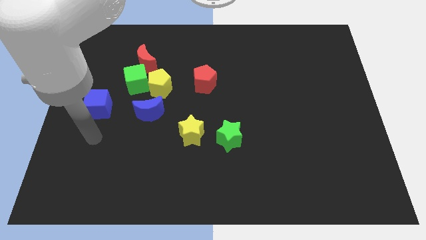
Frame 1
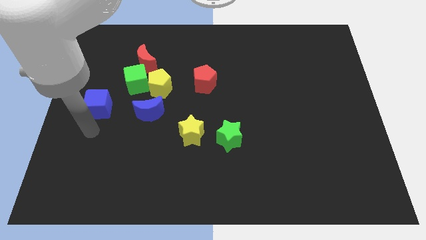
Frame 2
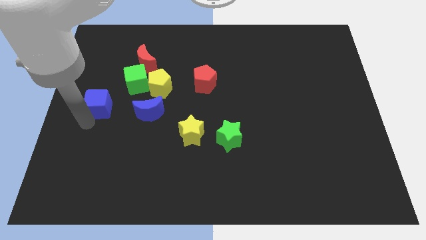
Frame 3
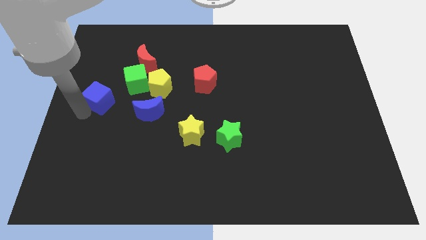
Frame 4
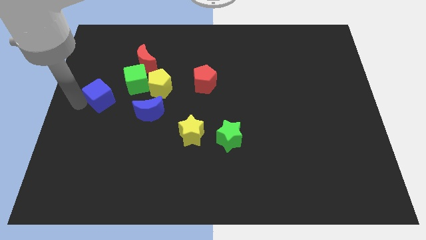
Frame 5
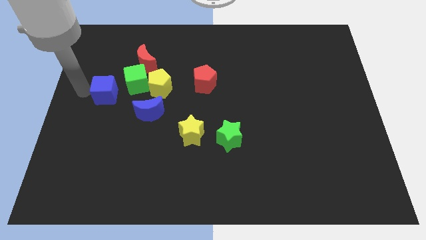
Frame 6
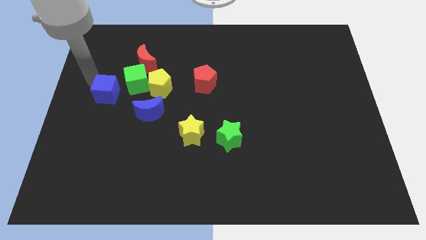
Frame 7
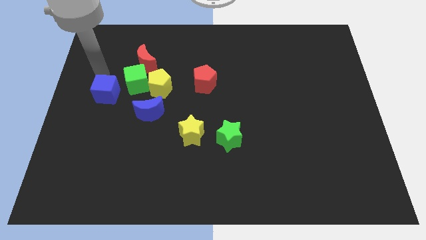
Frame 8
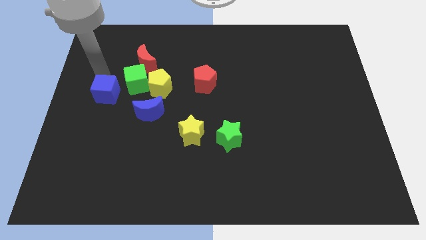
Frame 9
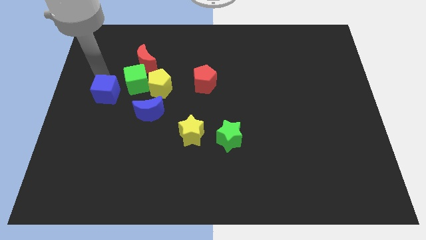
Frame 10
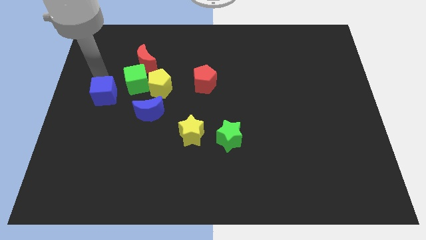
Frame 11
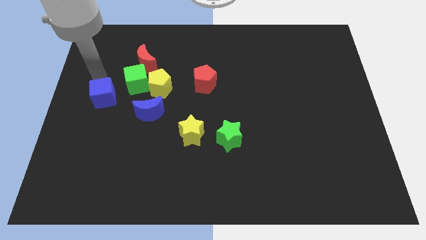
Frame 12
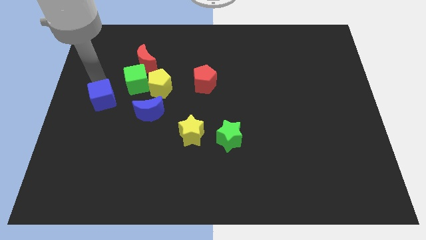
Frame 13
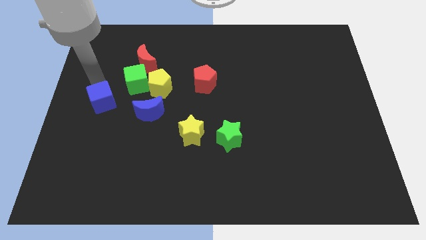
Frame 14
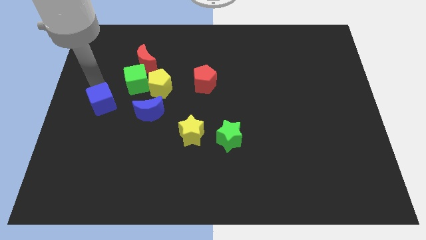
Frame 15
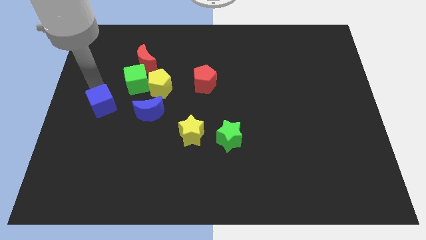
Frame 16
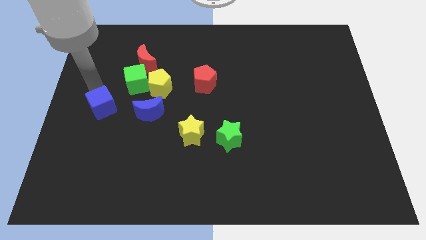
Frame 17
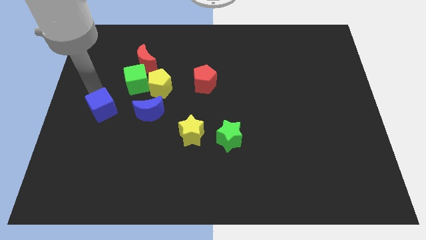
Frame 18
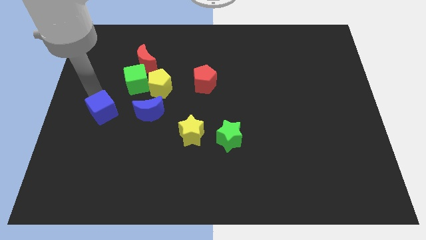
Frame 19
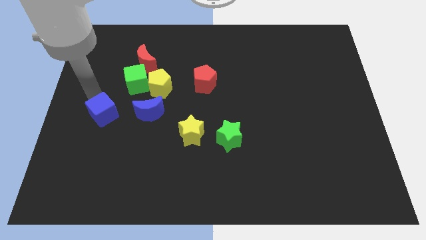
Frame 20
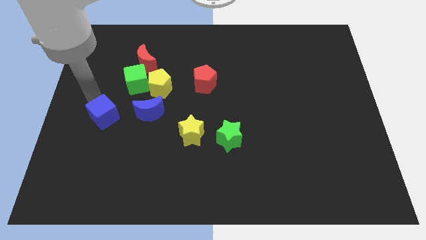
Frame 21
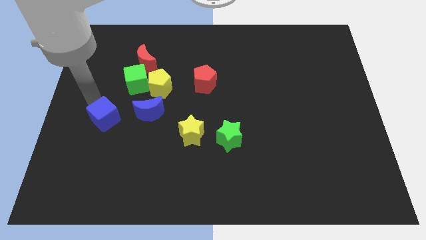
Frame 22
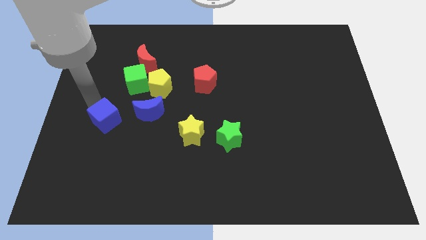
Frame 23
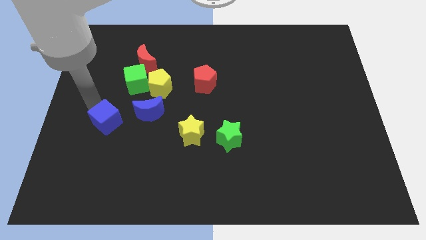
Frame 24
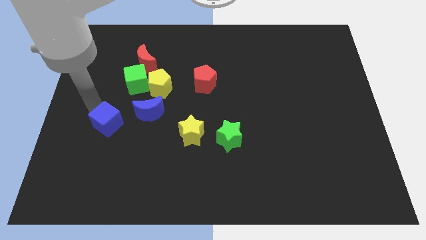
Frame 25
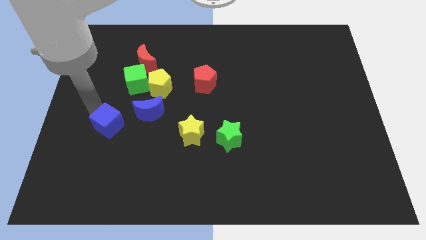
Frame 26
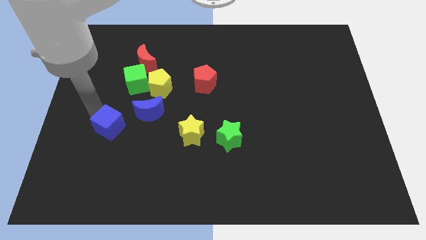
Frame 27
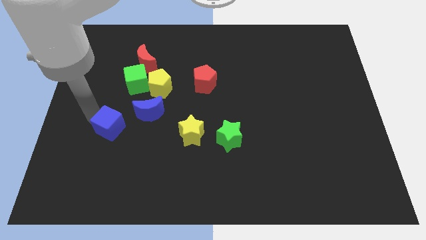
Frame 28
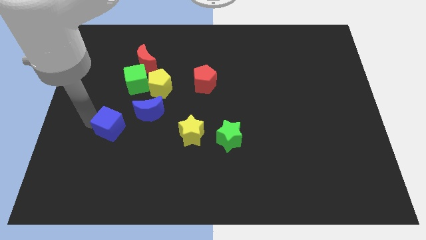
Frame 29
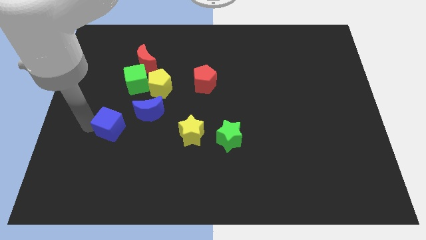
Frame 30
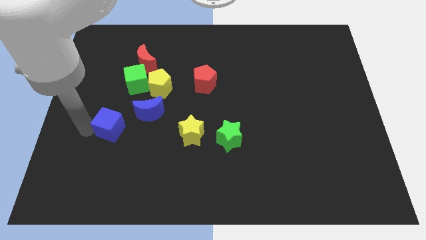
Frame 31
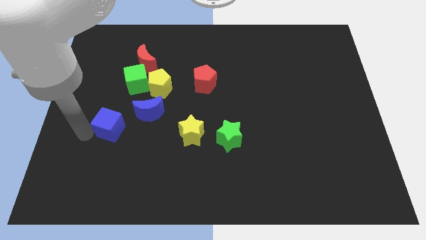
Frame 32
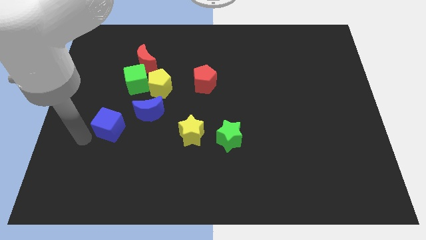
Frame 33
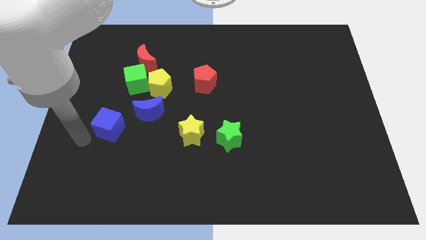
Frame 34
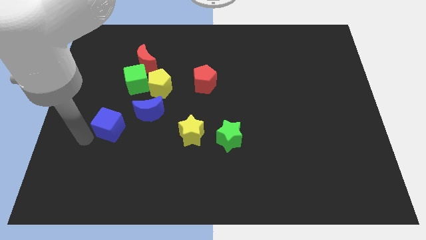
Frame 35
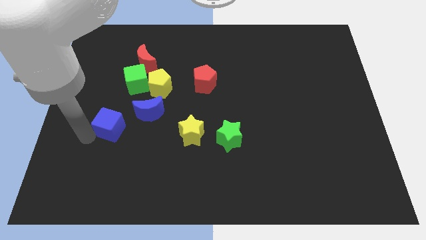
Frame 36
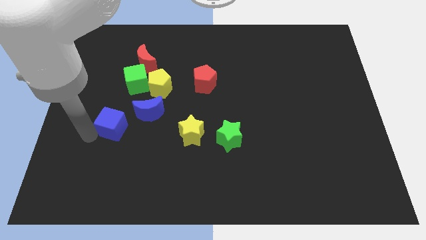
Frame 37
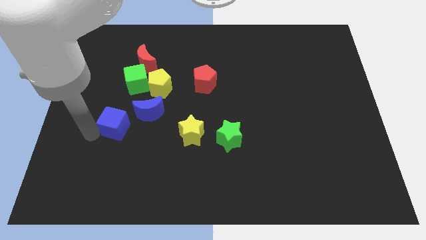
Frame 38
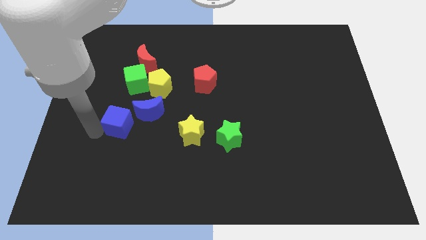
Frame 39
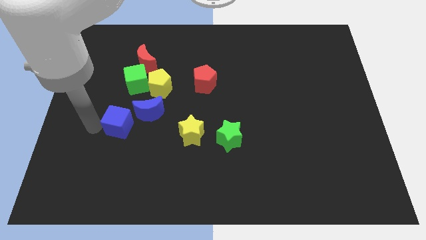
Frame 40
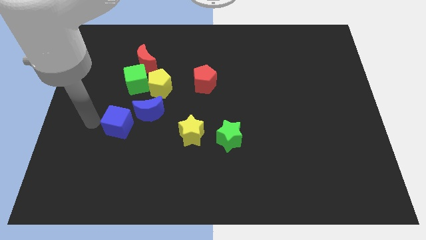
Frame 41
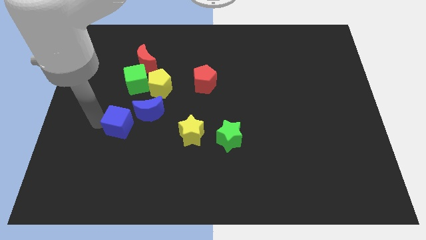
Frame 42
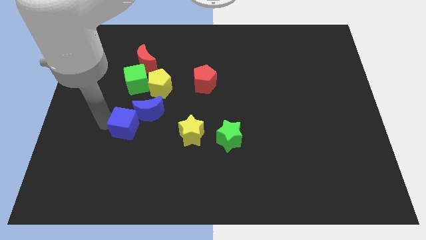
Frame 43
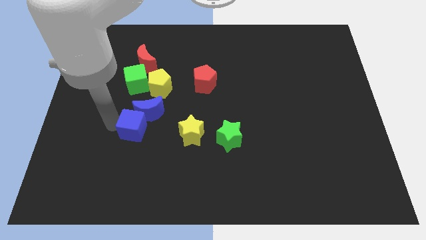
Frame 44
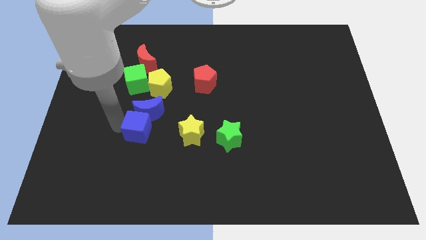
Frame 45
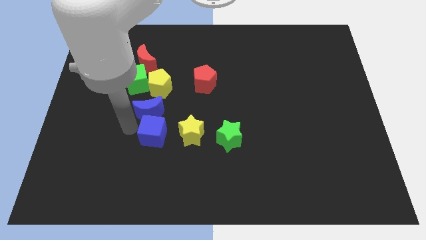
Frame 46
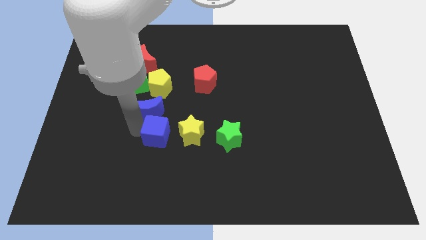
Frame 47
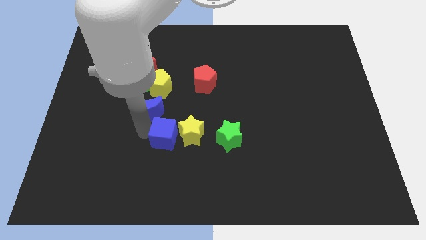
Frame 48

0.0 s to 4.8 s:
put the blue cube just left of the green star

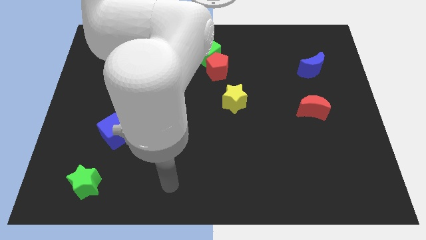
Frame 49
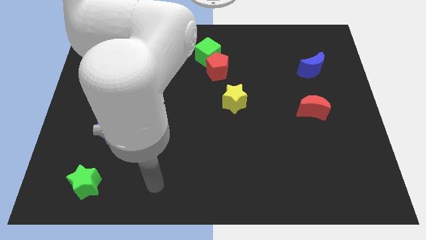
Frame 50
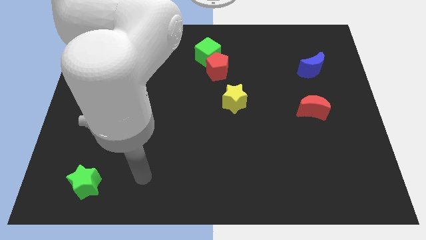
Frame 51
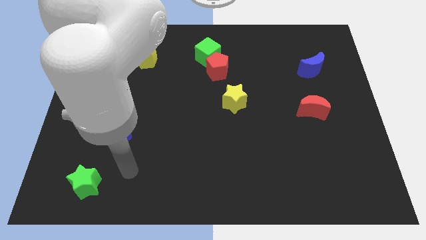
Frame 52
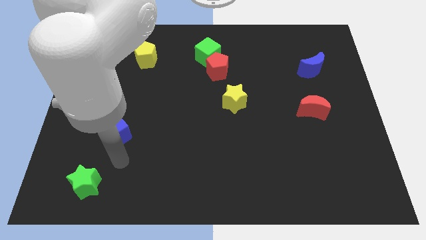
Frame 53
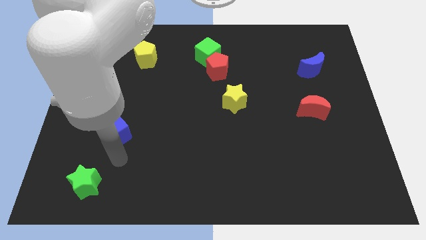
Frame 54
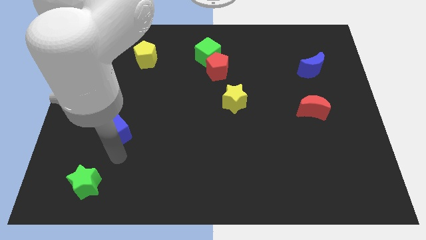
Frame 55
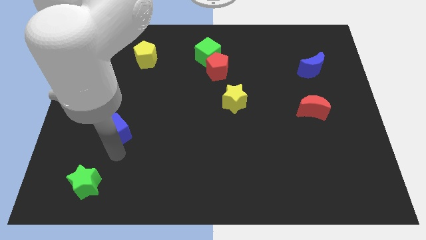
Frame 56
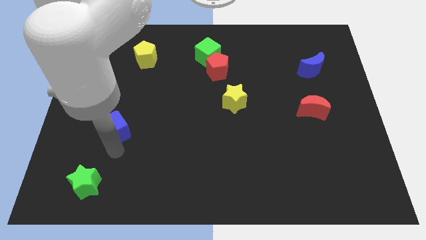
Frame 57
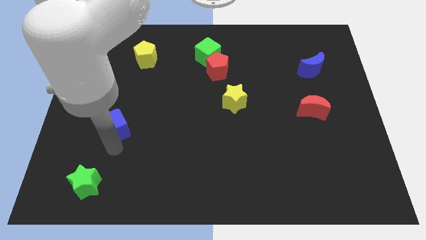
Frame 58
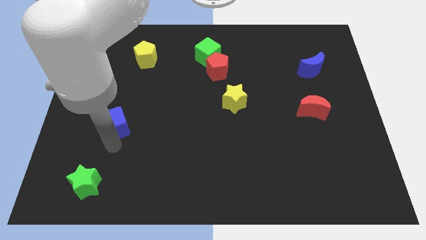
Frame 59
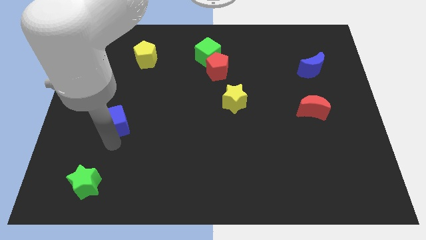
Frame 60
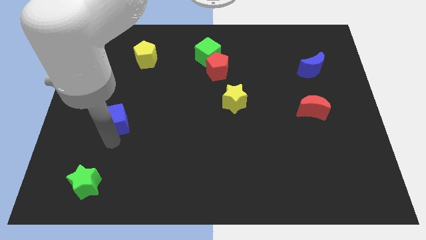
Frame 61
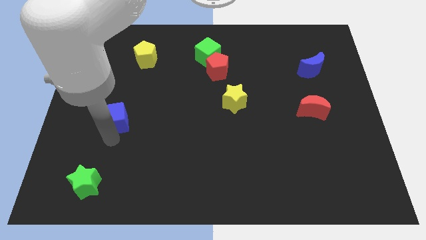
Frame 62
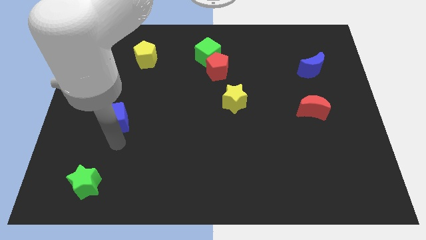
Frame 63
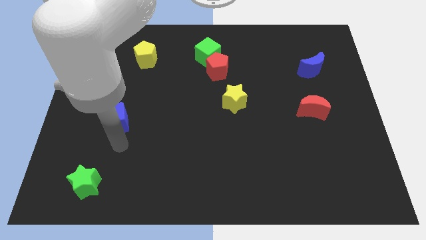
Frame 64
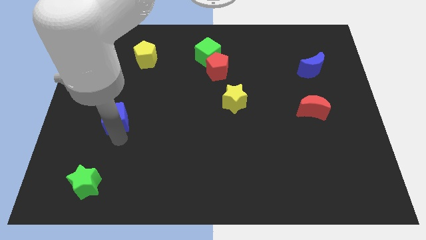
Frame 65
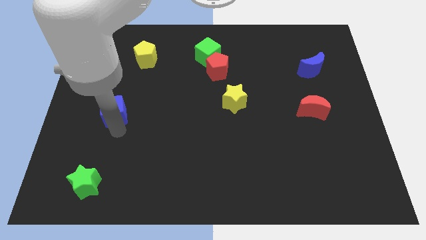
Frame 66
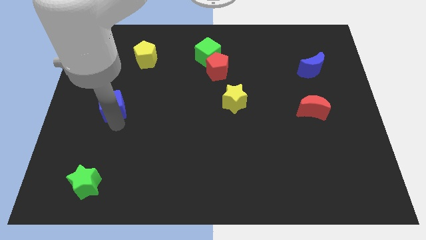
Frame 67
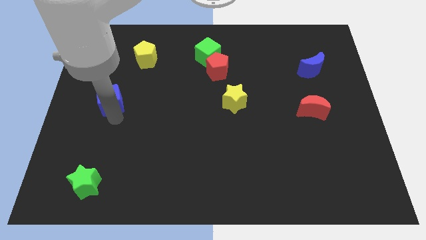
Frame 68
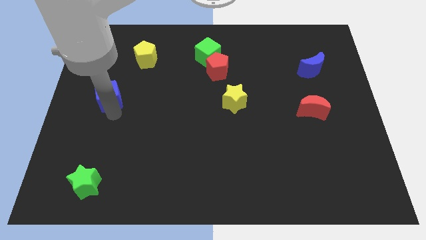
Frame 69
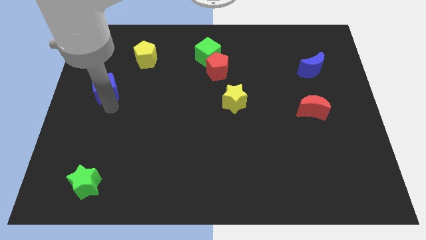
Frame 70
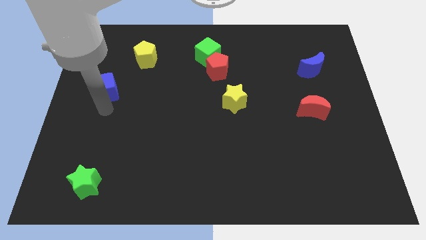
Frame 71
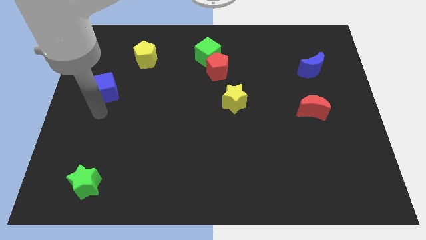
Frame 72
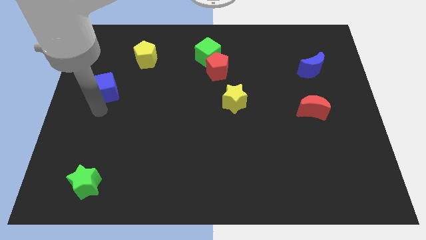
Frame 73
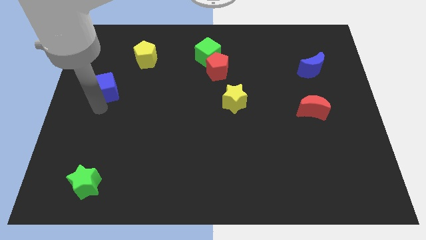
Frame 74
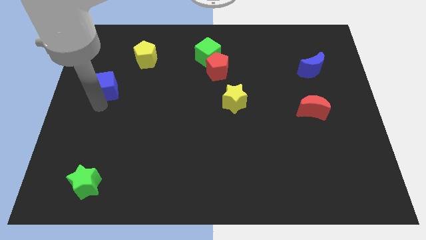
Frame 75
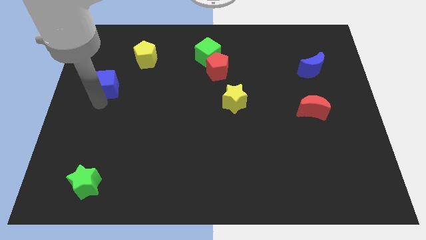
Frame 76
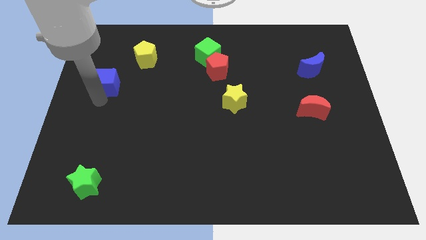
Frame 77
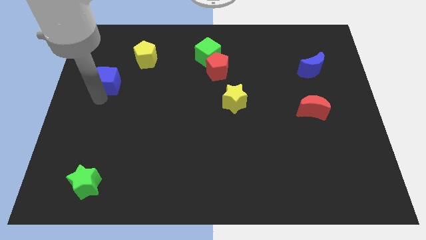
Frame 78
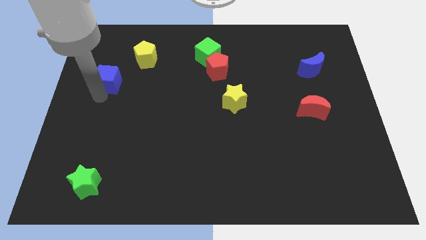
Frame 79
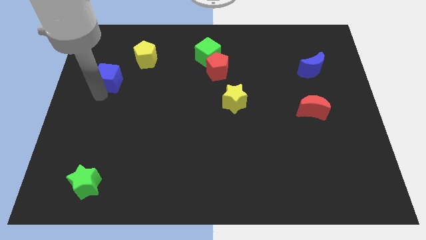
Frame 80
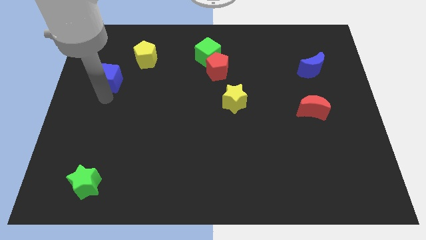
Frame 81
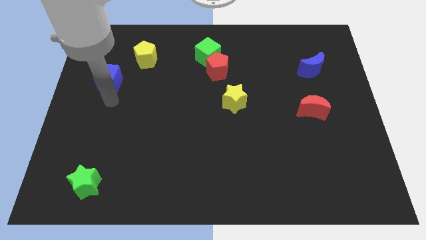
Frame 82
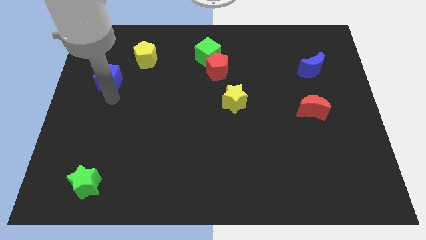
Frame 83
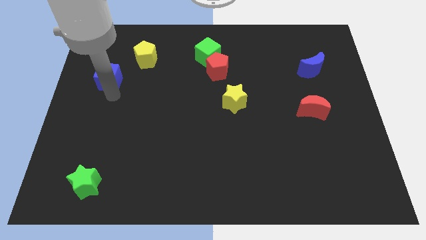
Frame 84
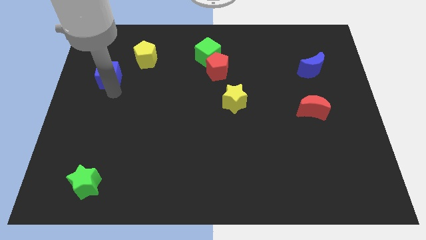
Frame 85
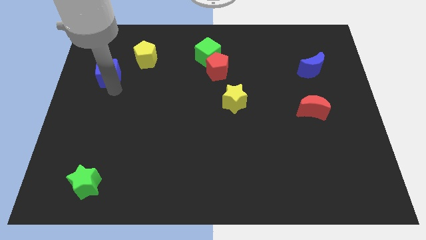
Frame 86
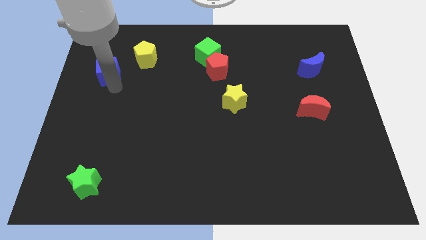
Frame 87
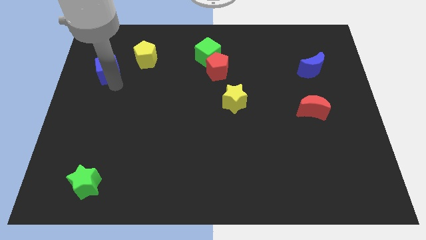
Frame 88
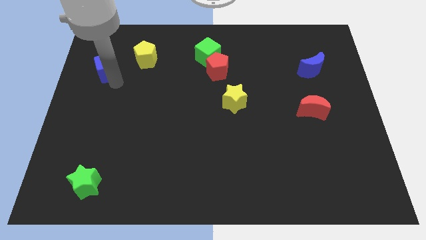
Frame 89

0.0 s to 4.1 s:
slide the blue cube to the left of the yellow pentagon
